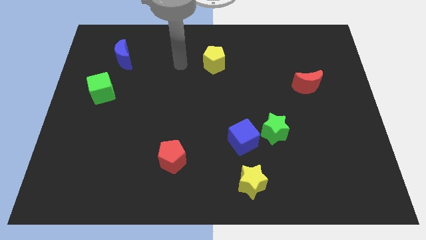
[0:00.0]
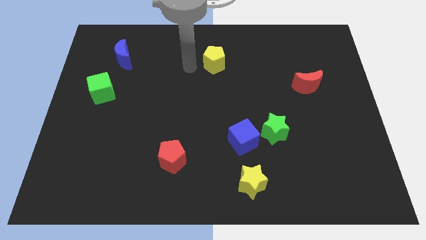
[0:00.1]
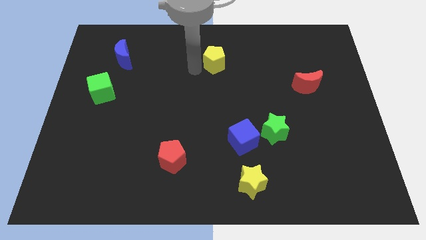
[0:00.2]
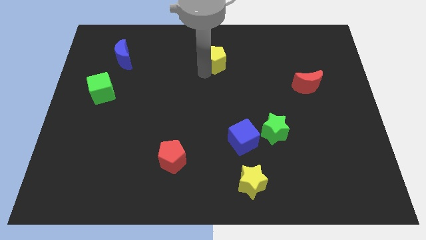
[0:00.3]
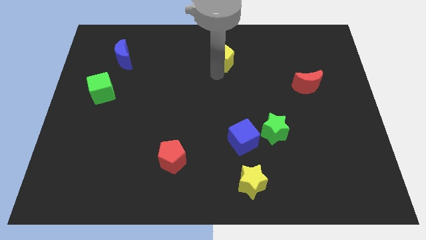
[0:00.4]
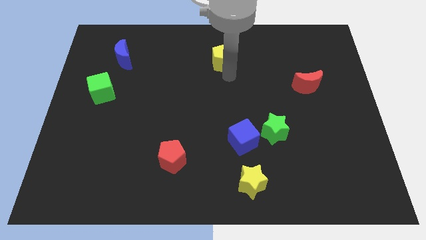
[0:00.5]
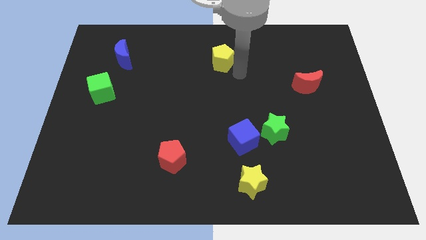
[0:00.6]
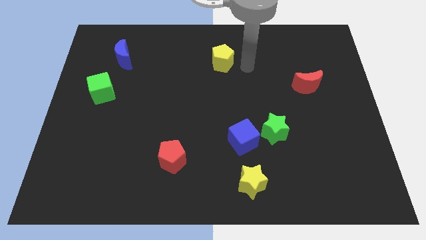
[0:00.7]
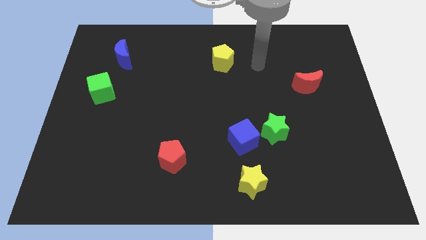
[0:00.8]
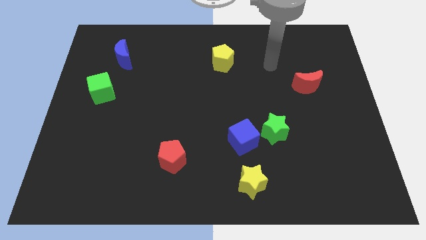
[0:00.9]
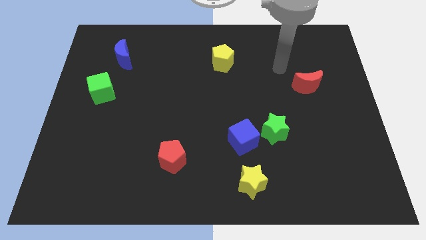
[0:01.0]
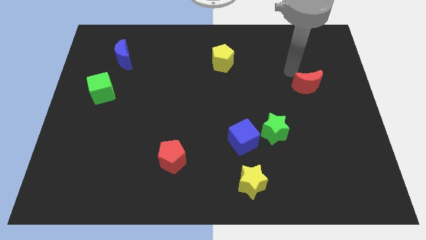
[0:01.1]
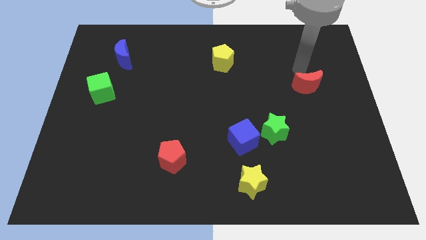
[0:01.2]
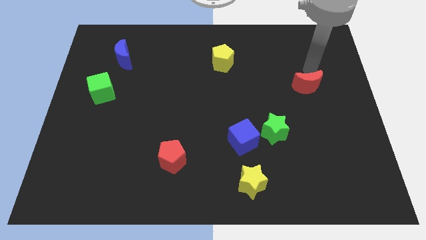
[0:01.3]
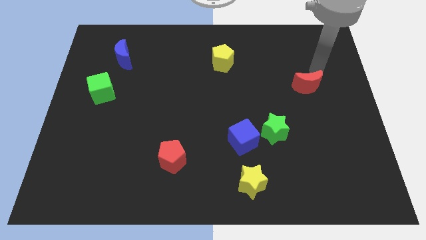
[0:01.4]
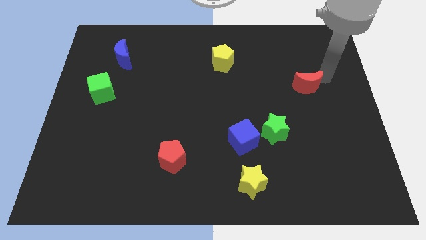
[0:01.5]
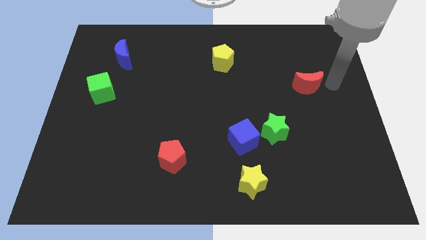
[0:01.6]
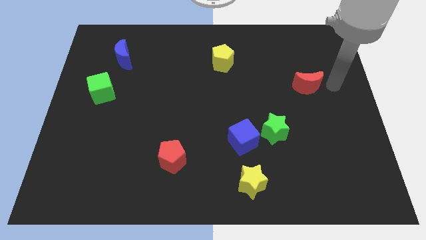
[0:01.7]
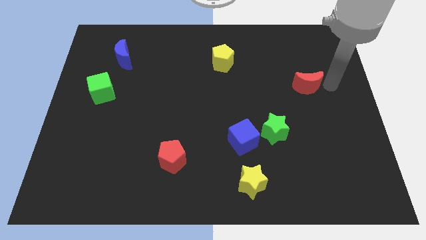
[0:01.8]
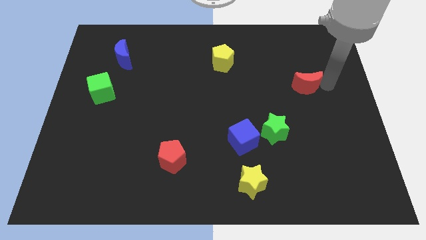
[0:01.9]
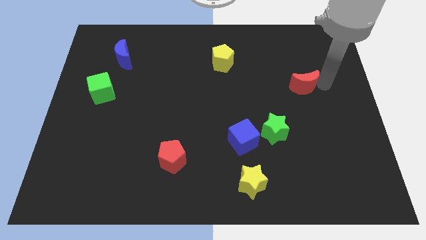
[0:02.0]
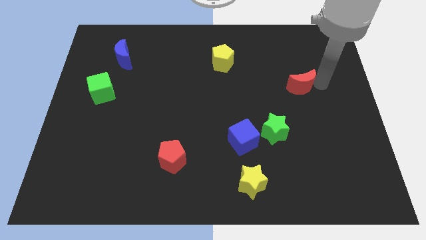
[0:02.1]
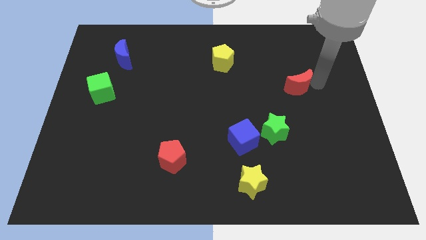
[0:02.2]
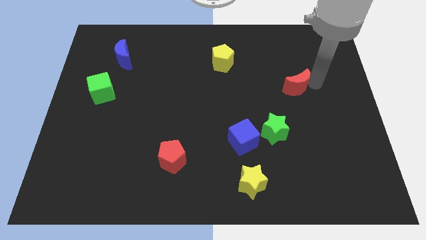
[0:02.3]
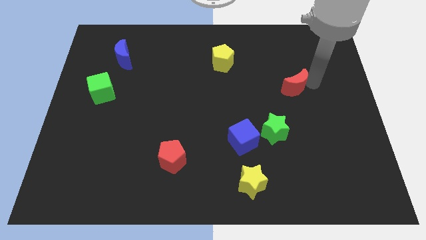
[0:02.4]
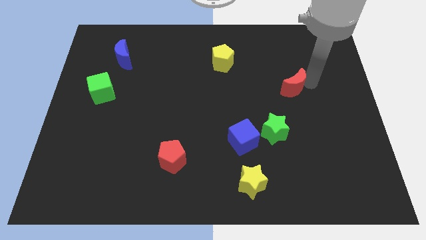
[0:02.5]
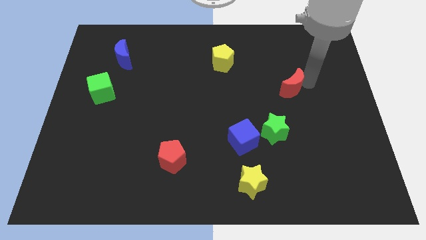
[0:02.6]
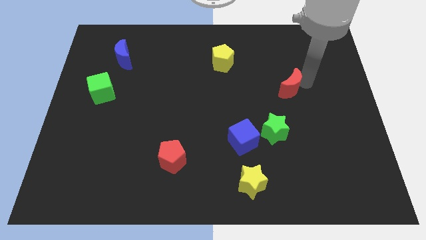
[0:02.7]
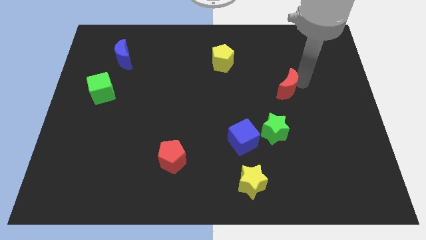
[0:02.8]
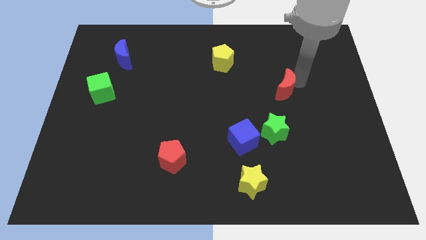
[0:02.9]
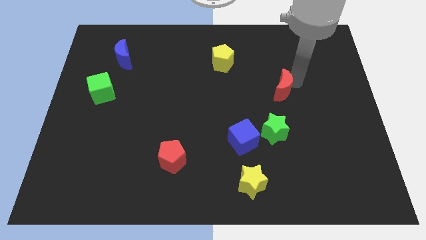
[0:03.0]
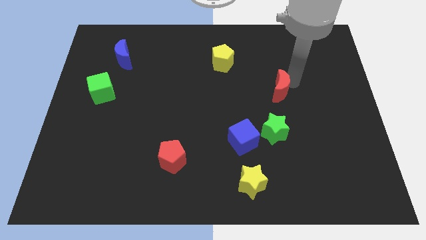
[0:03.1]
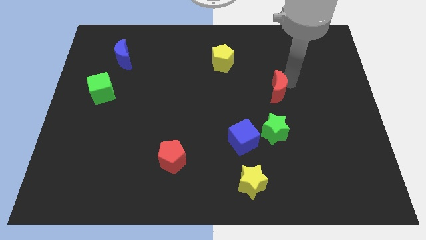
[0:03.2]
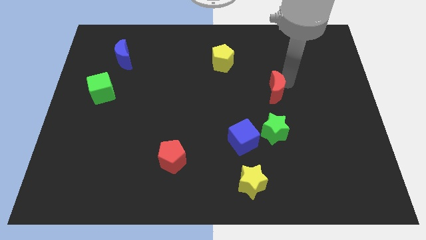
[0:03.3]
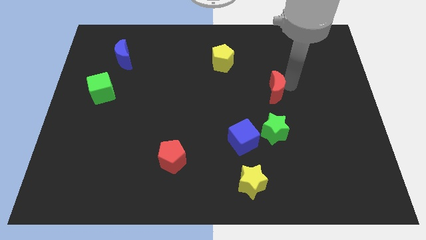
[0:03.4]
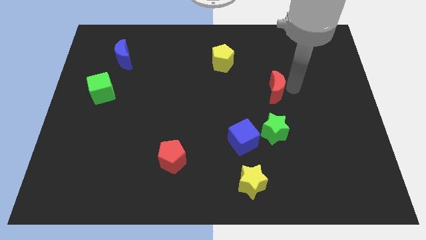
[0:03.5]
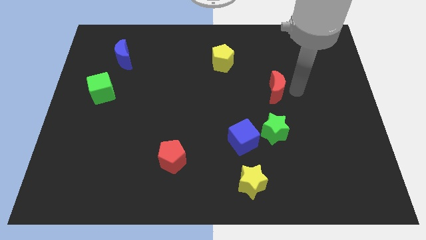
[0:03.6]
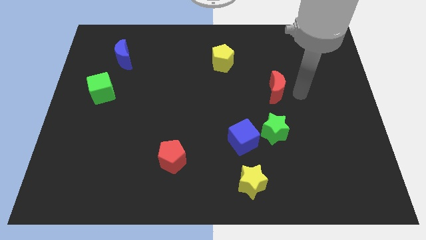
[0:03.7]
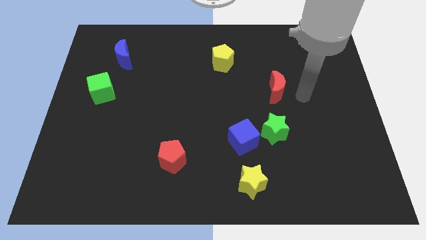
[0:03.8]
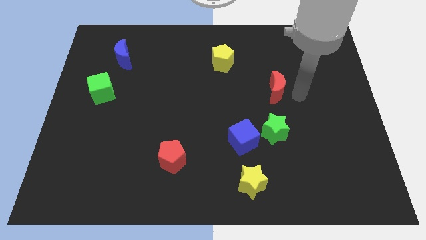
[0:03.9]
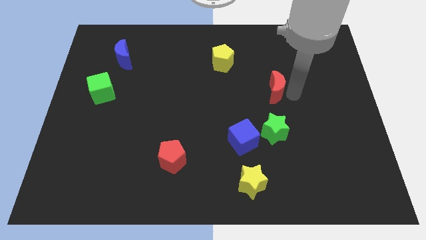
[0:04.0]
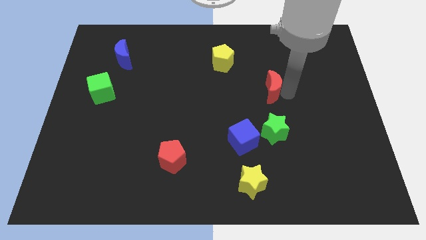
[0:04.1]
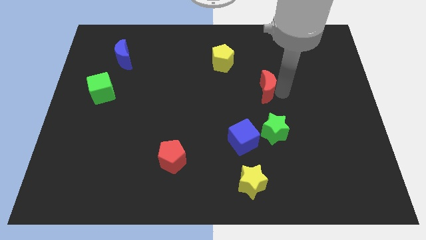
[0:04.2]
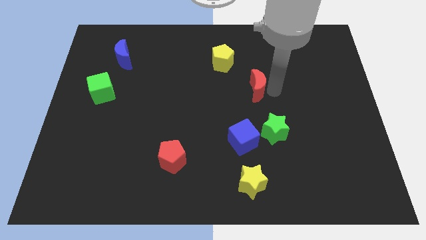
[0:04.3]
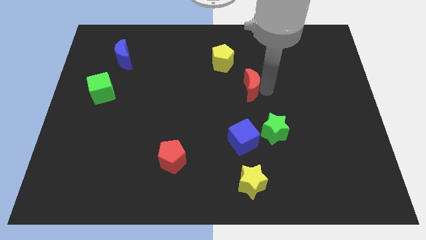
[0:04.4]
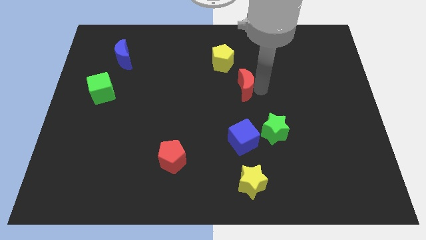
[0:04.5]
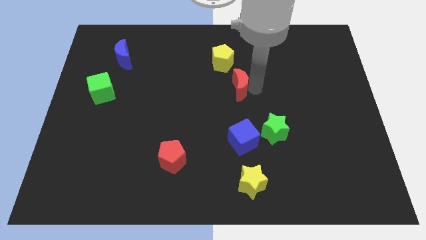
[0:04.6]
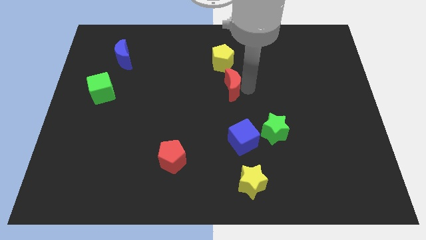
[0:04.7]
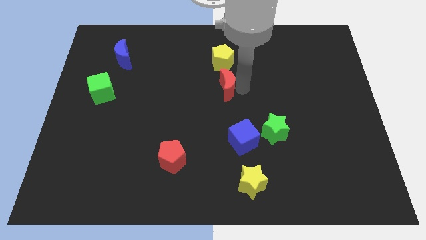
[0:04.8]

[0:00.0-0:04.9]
slide the red moon to the left

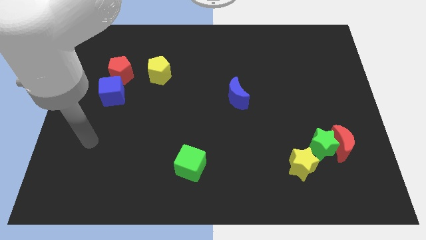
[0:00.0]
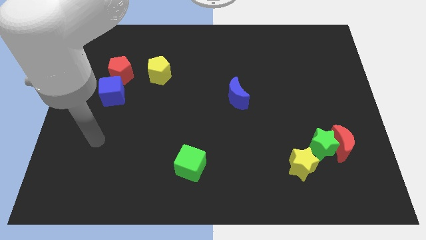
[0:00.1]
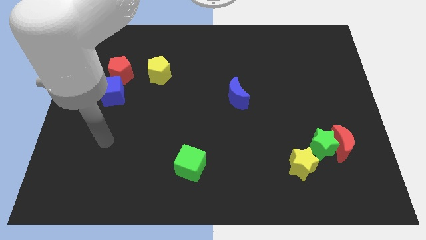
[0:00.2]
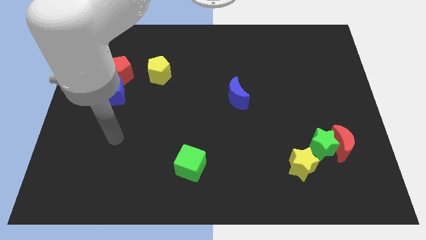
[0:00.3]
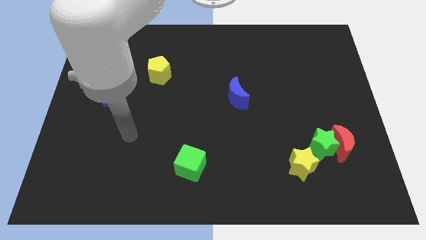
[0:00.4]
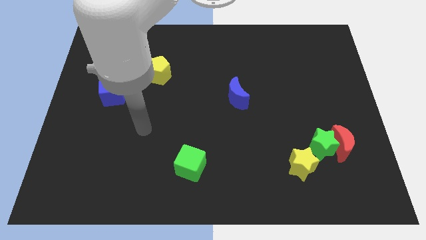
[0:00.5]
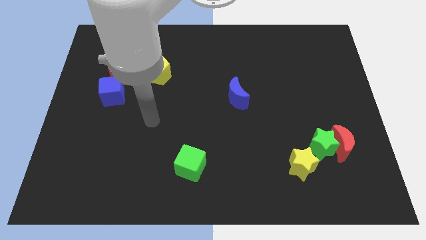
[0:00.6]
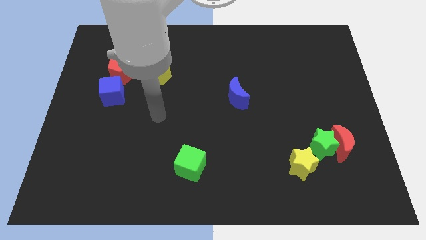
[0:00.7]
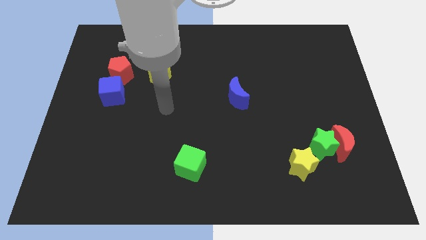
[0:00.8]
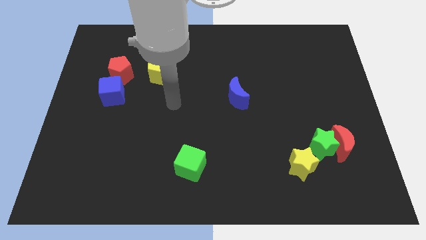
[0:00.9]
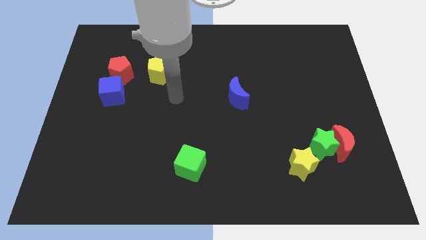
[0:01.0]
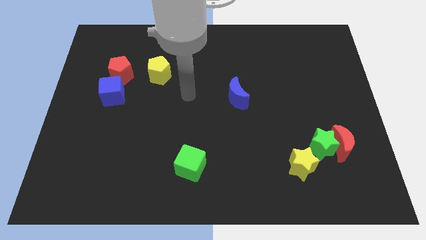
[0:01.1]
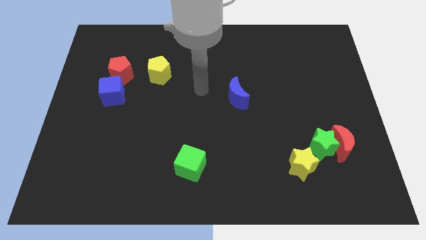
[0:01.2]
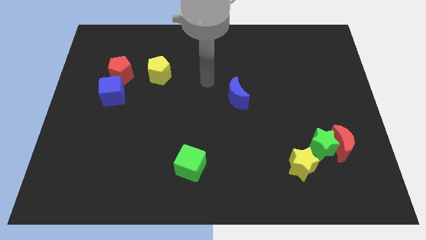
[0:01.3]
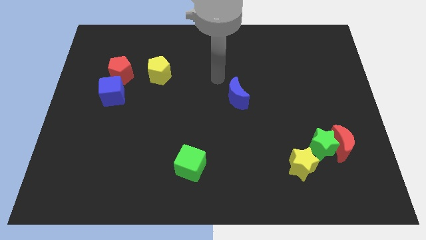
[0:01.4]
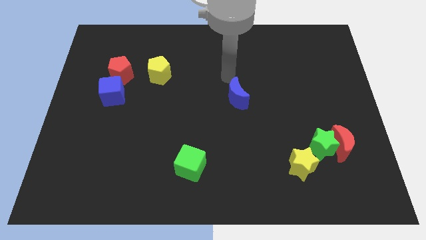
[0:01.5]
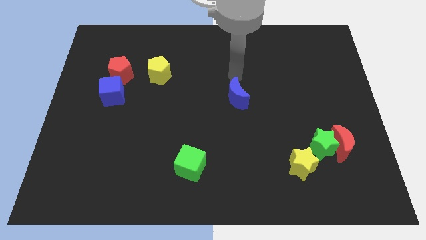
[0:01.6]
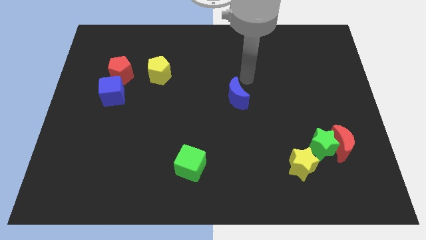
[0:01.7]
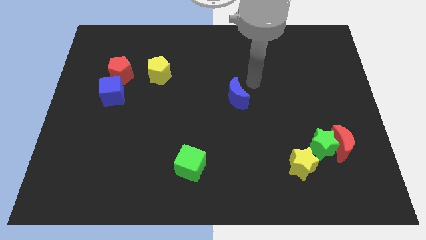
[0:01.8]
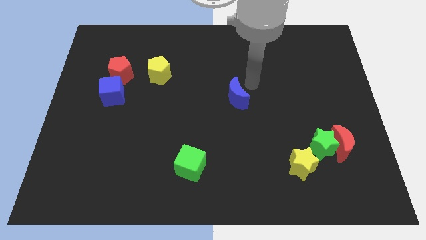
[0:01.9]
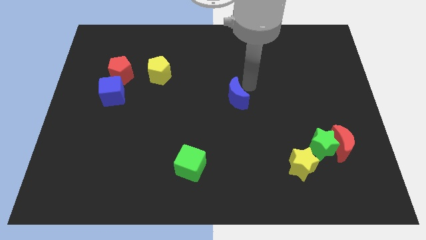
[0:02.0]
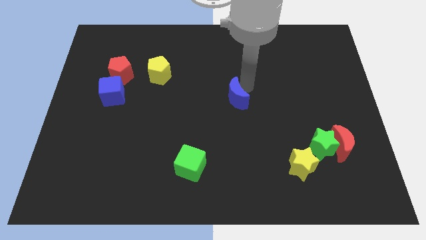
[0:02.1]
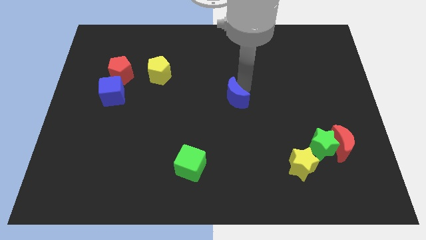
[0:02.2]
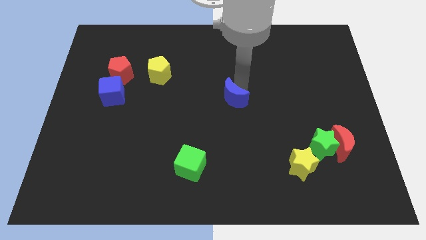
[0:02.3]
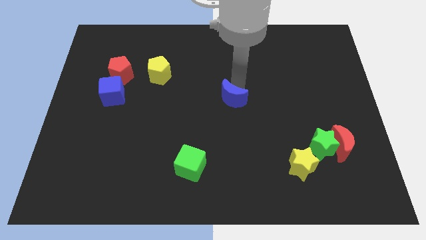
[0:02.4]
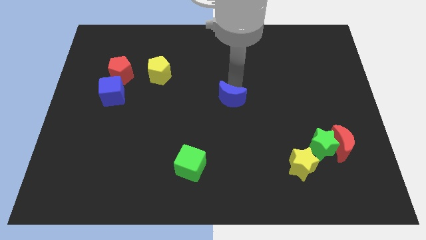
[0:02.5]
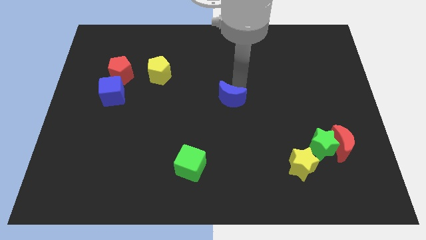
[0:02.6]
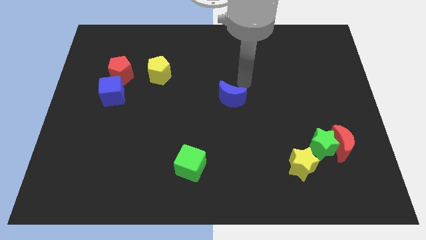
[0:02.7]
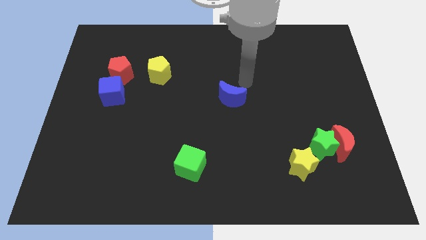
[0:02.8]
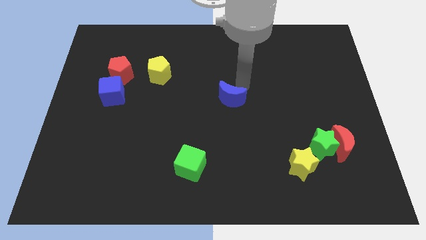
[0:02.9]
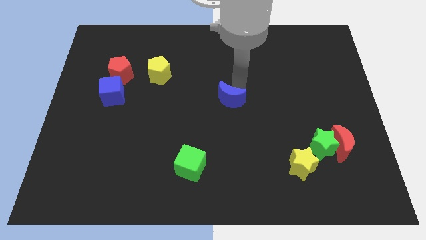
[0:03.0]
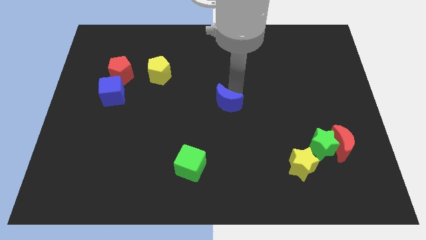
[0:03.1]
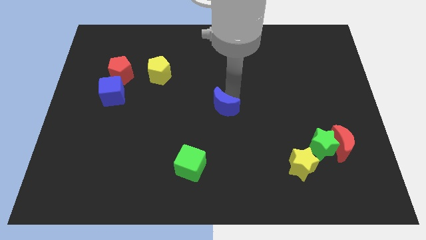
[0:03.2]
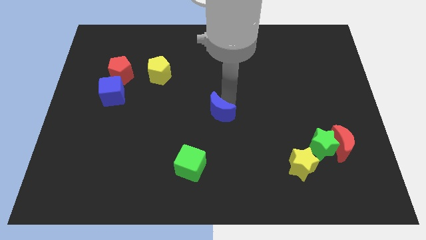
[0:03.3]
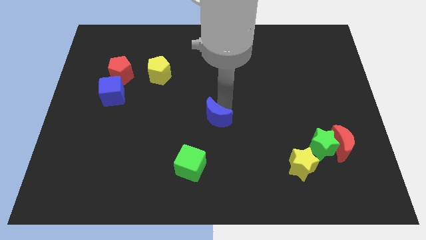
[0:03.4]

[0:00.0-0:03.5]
slightly move the blue moon downwards and to the left diagonally
